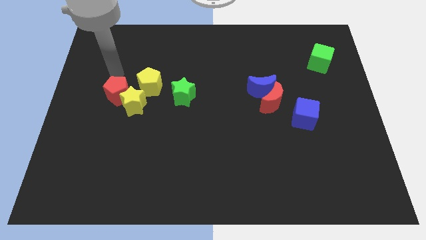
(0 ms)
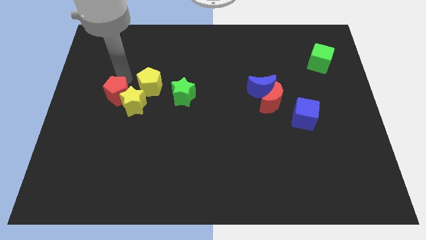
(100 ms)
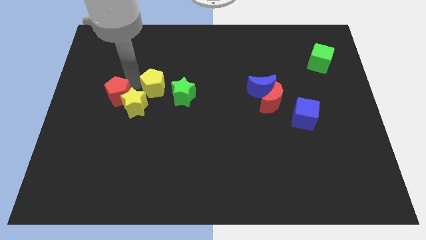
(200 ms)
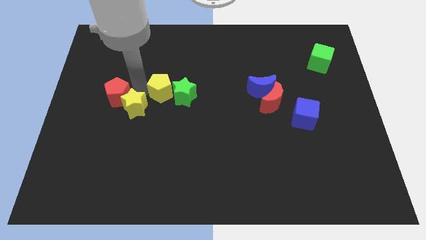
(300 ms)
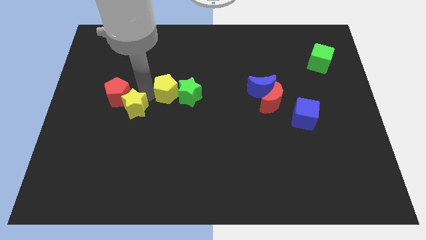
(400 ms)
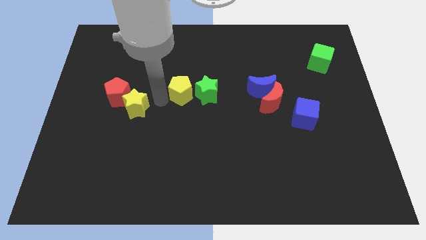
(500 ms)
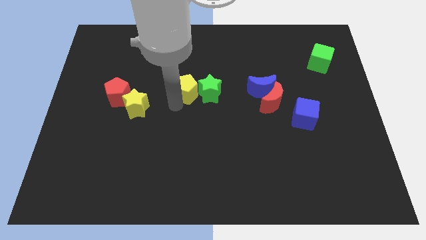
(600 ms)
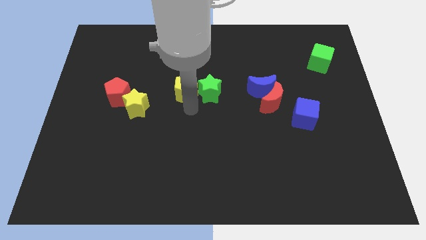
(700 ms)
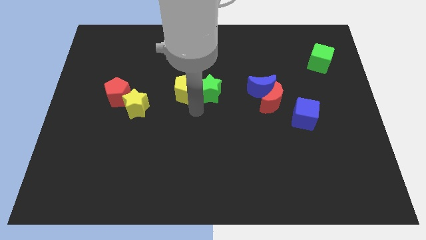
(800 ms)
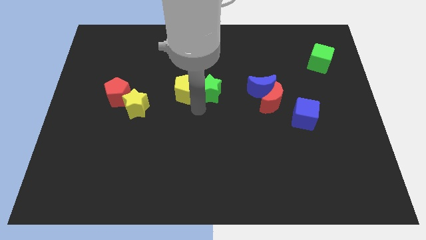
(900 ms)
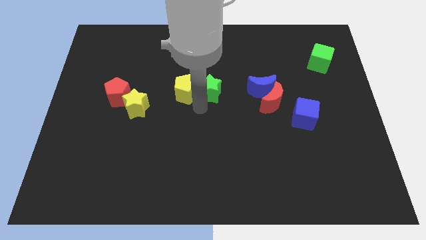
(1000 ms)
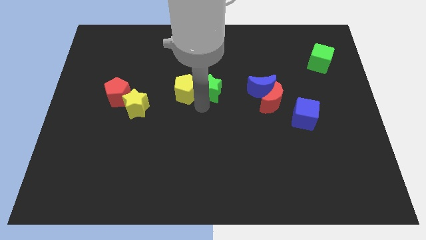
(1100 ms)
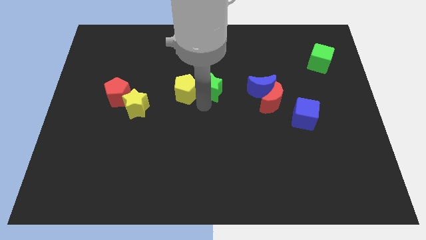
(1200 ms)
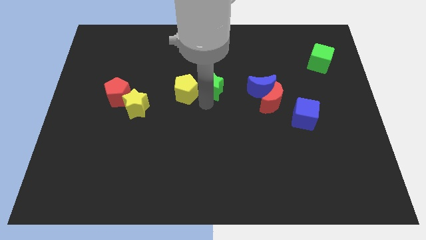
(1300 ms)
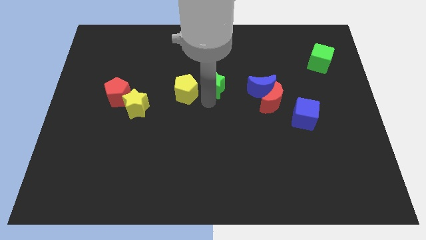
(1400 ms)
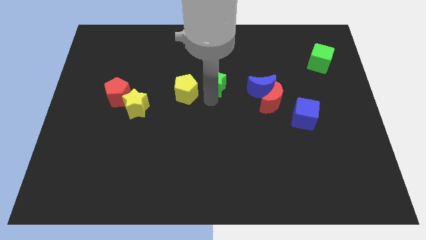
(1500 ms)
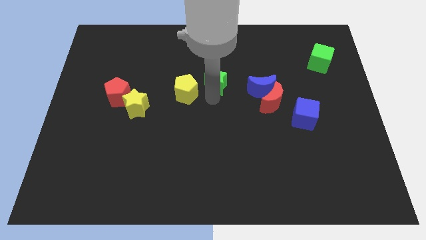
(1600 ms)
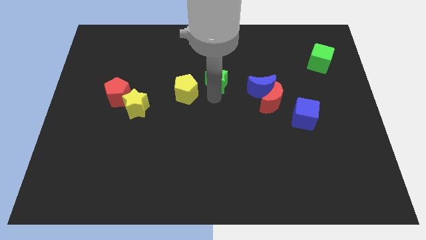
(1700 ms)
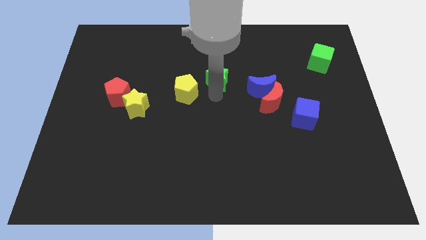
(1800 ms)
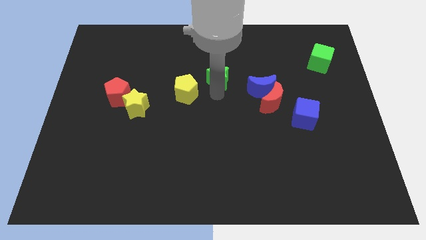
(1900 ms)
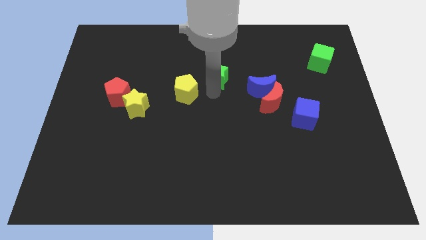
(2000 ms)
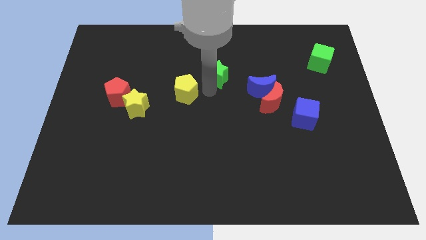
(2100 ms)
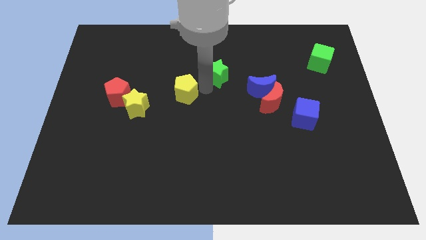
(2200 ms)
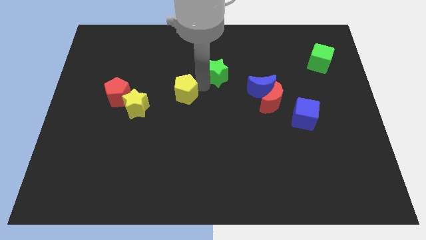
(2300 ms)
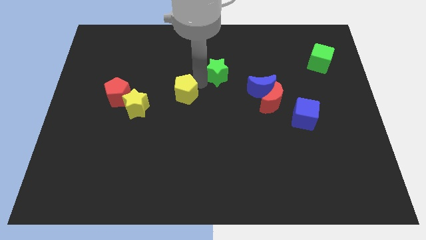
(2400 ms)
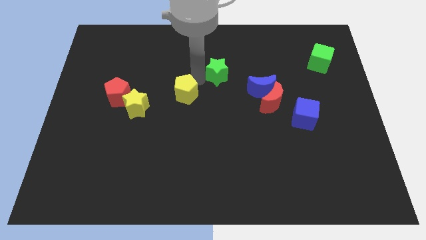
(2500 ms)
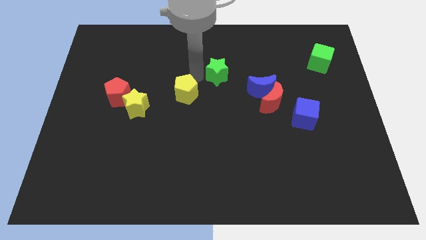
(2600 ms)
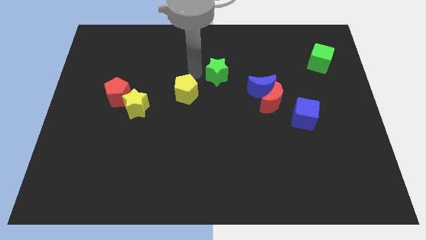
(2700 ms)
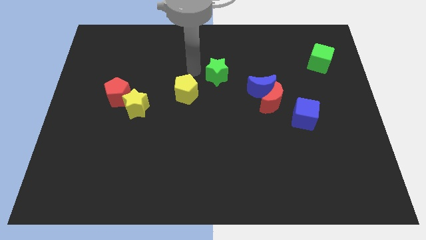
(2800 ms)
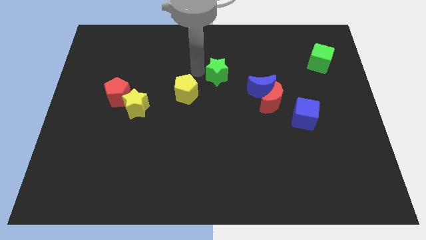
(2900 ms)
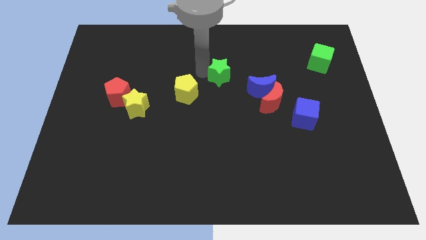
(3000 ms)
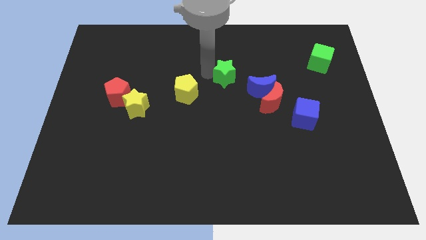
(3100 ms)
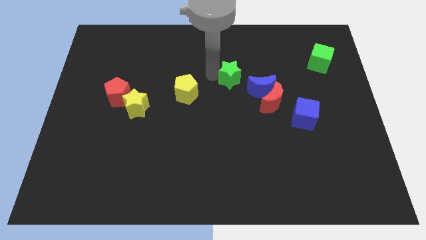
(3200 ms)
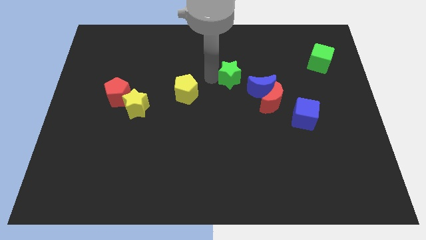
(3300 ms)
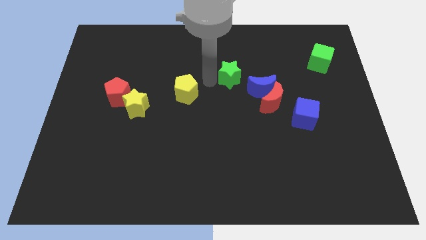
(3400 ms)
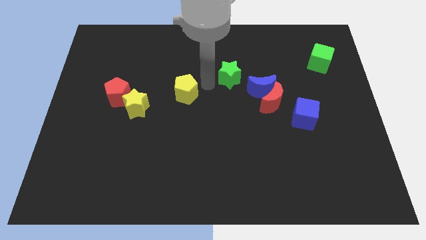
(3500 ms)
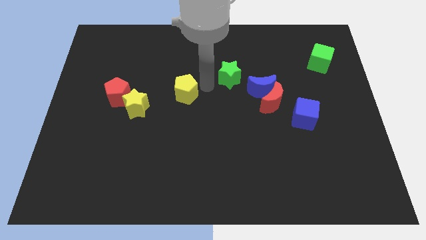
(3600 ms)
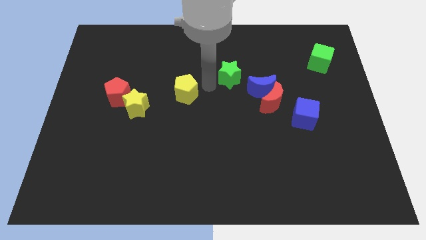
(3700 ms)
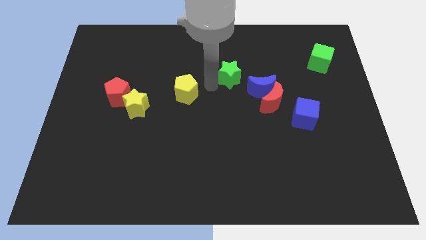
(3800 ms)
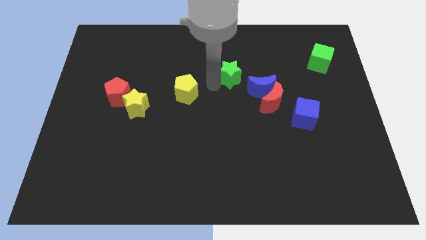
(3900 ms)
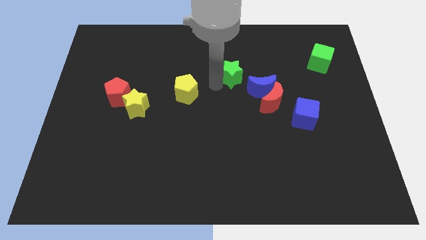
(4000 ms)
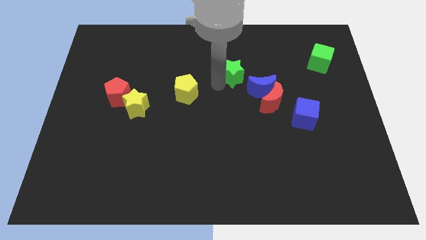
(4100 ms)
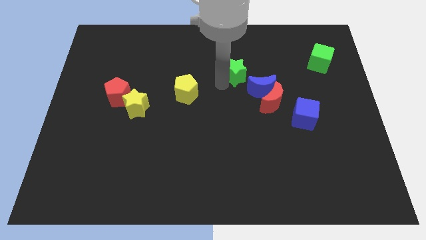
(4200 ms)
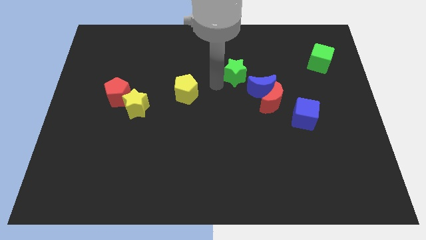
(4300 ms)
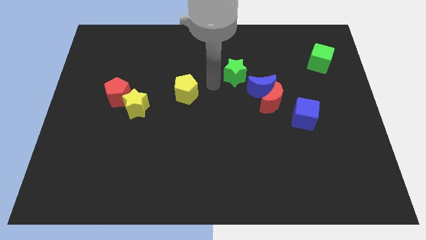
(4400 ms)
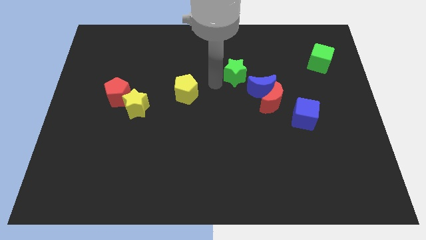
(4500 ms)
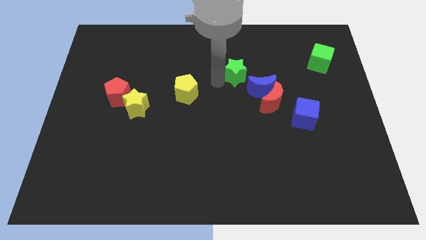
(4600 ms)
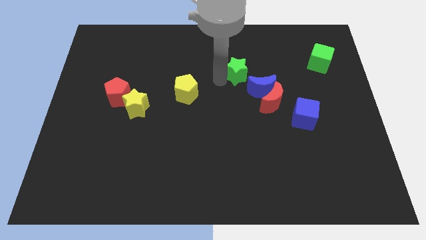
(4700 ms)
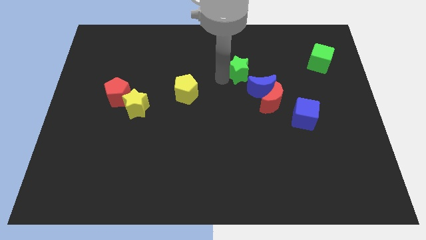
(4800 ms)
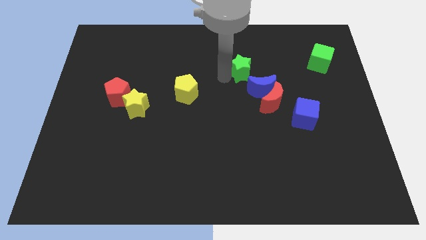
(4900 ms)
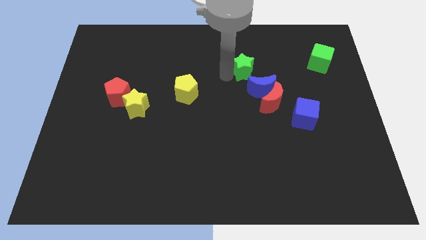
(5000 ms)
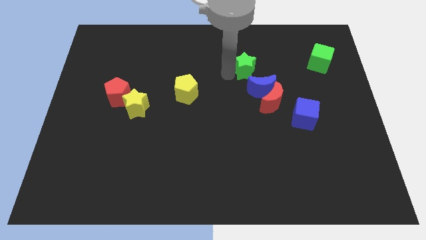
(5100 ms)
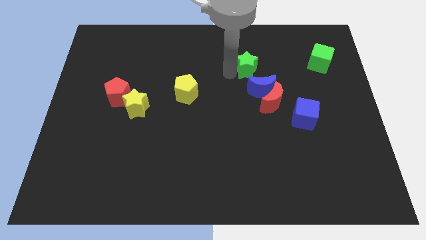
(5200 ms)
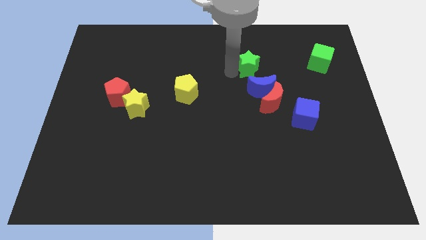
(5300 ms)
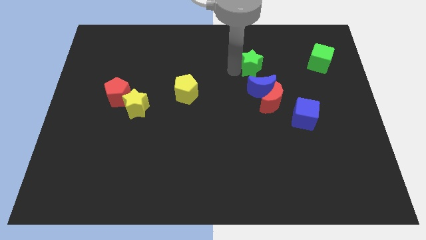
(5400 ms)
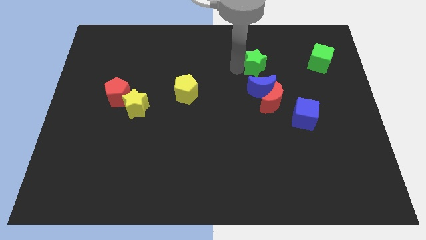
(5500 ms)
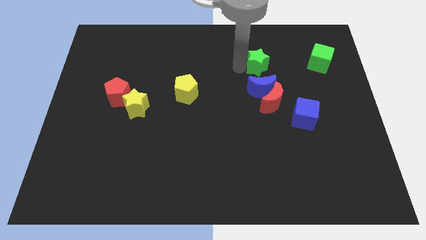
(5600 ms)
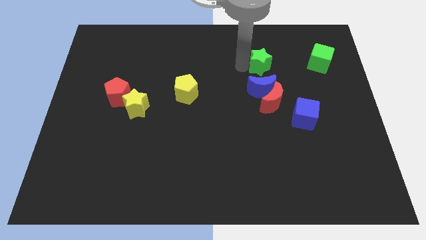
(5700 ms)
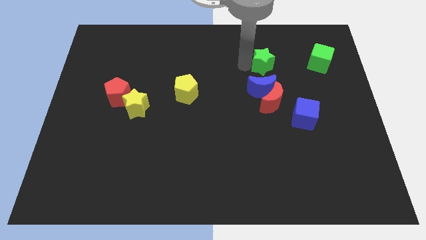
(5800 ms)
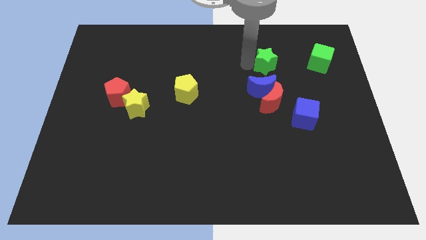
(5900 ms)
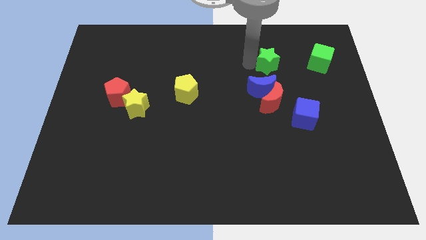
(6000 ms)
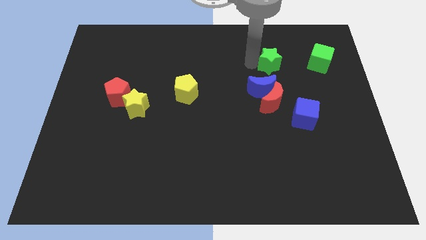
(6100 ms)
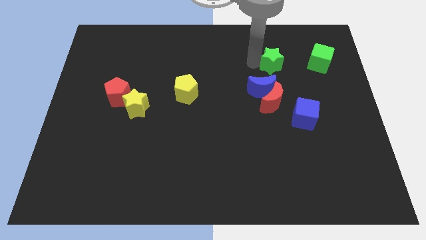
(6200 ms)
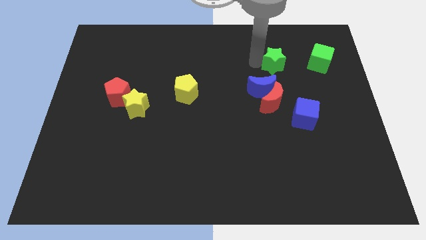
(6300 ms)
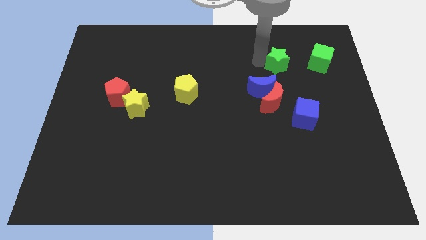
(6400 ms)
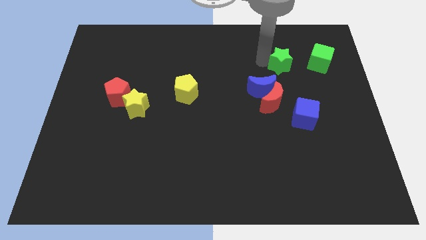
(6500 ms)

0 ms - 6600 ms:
push the green star right

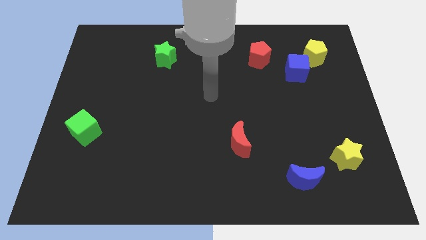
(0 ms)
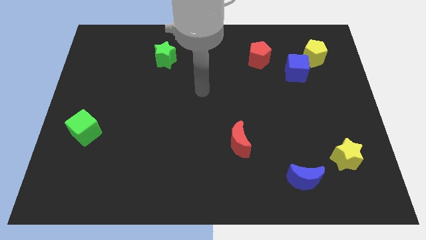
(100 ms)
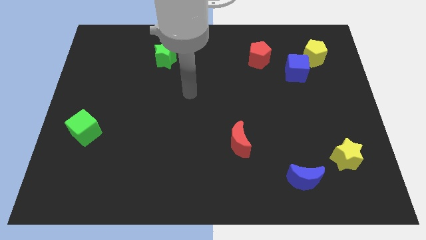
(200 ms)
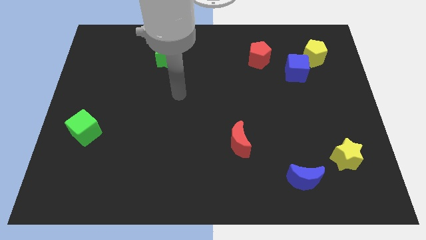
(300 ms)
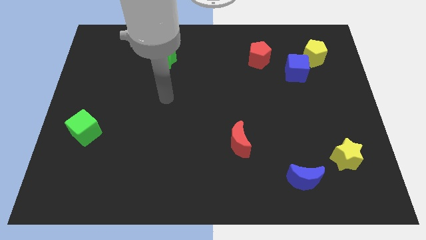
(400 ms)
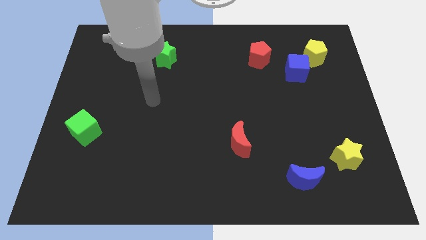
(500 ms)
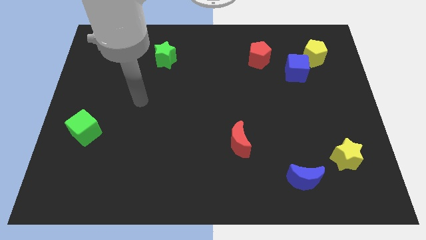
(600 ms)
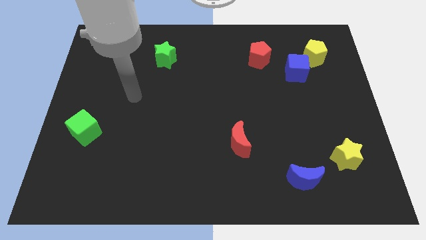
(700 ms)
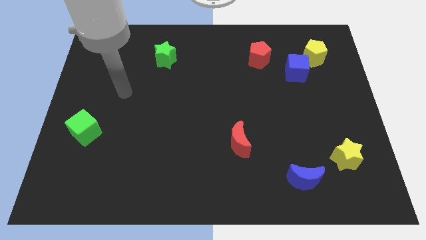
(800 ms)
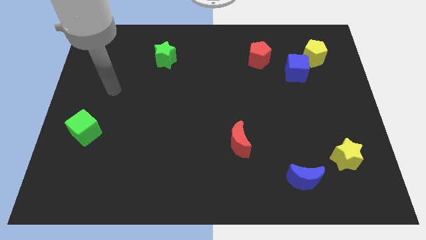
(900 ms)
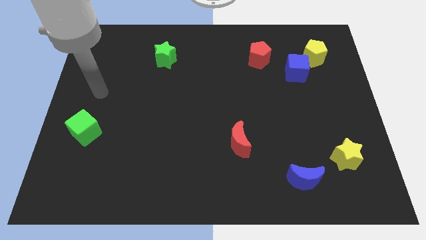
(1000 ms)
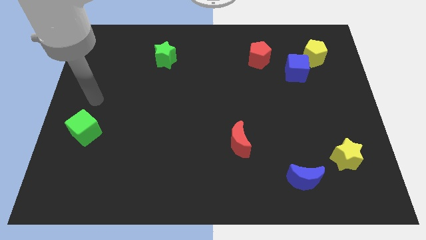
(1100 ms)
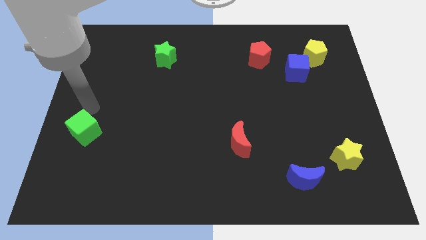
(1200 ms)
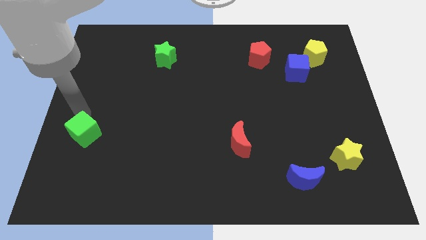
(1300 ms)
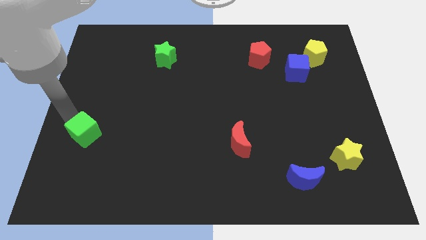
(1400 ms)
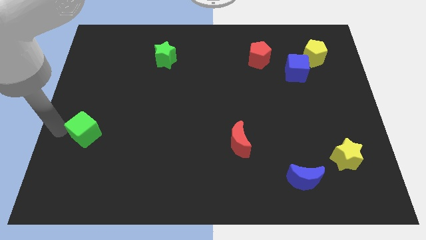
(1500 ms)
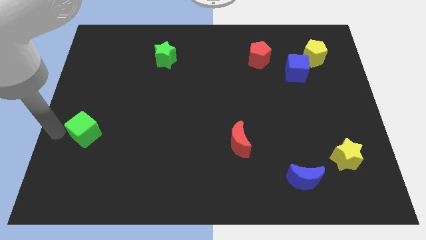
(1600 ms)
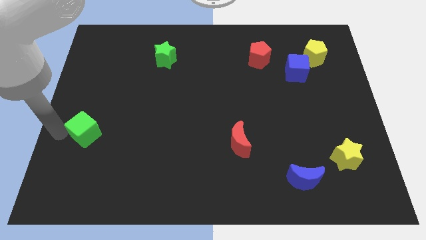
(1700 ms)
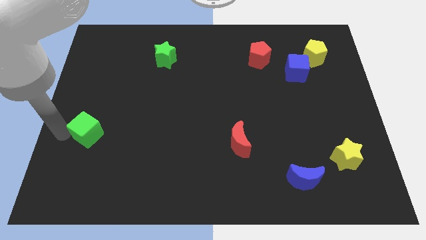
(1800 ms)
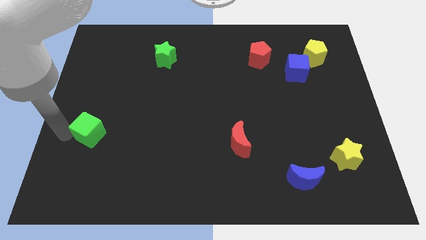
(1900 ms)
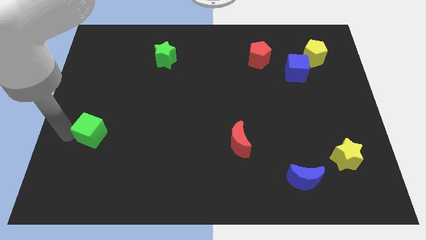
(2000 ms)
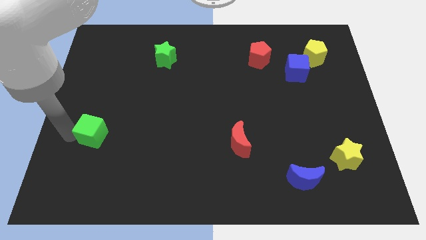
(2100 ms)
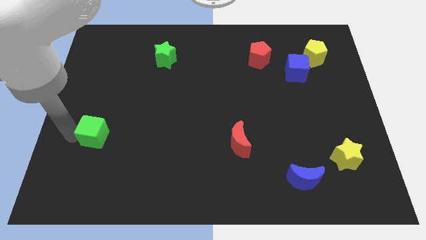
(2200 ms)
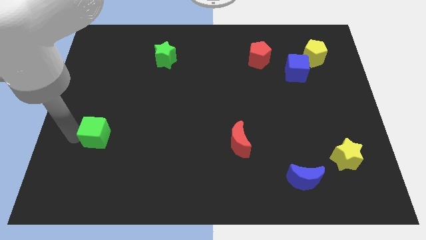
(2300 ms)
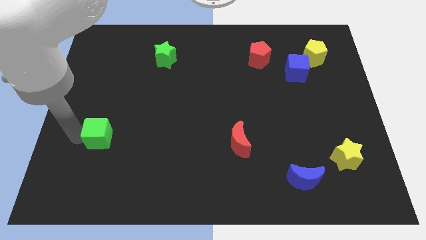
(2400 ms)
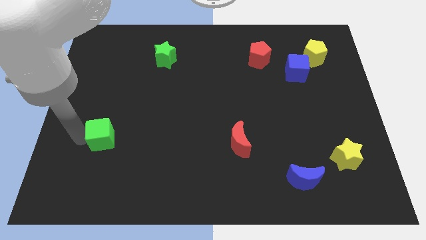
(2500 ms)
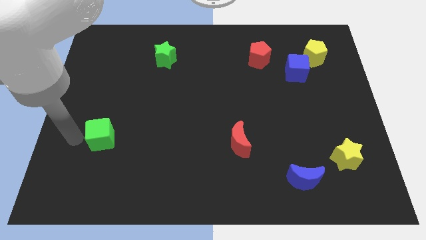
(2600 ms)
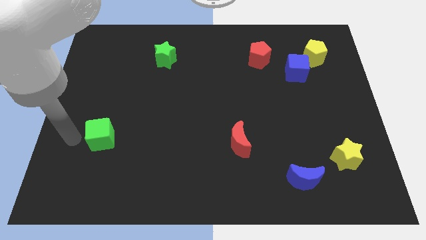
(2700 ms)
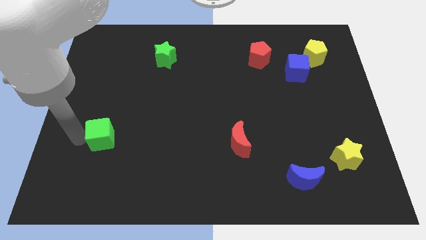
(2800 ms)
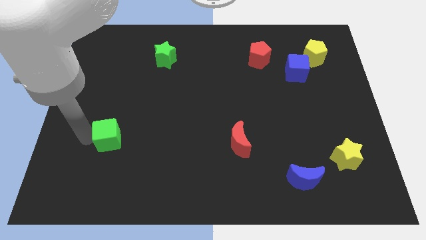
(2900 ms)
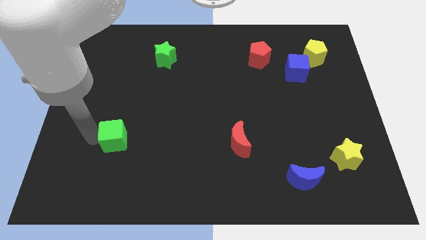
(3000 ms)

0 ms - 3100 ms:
move the green cube somewhat right
